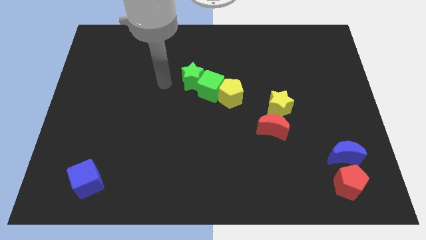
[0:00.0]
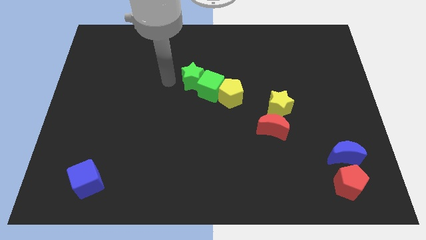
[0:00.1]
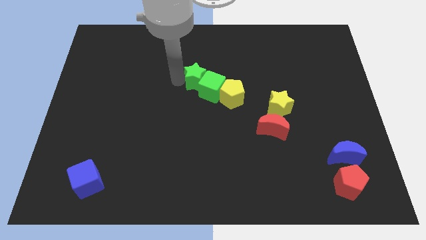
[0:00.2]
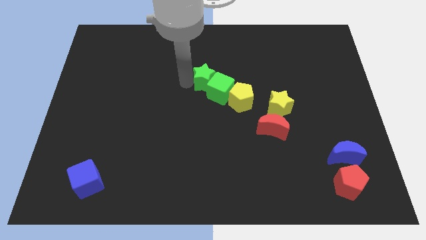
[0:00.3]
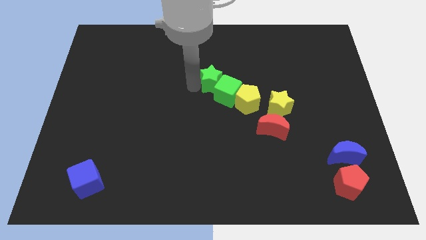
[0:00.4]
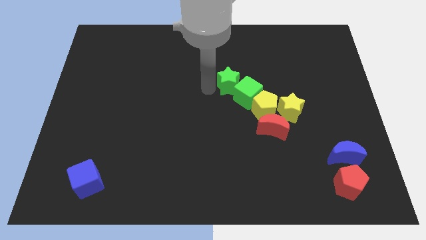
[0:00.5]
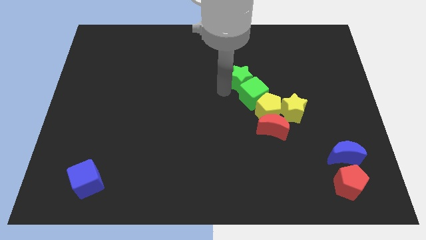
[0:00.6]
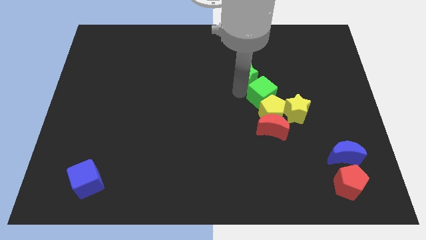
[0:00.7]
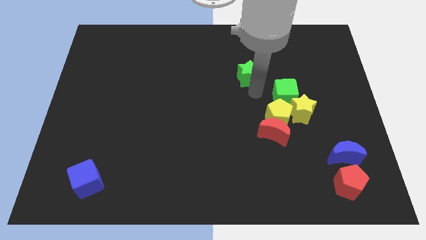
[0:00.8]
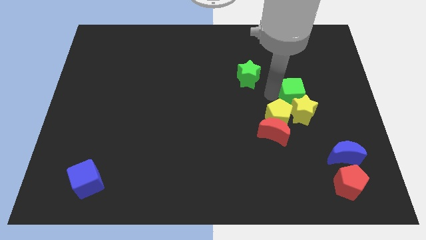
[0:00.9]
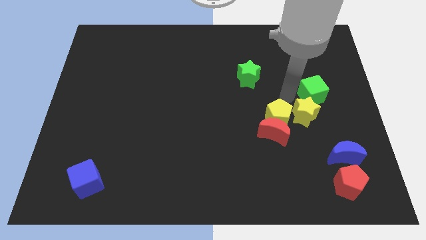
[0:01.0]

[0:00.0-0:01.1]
pull the yellow pentagon apart from the green cube

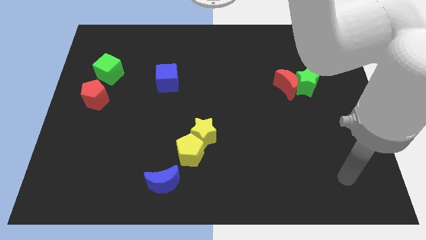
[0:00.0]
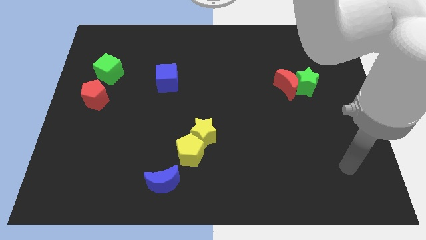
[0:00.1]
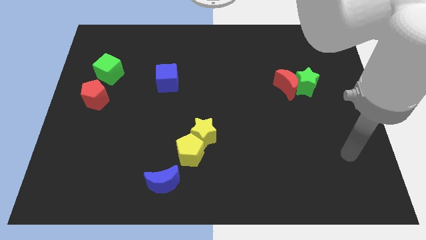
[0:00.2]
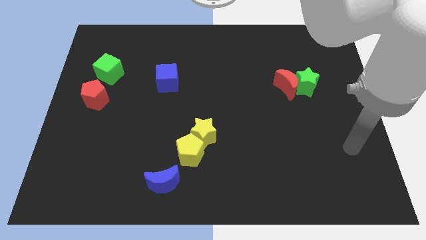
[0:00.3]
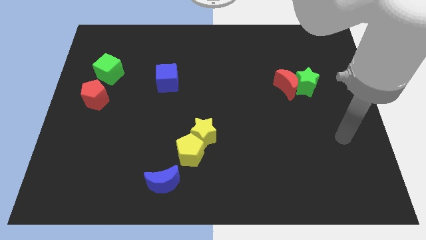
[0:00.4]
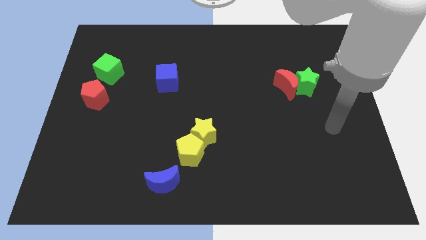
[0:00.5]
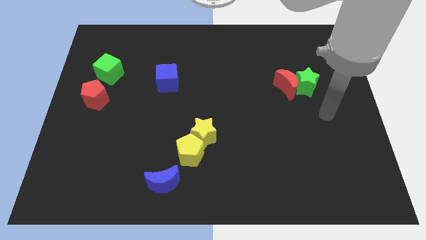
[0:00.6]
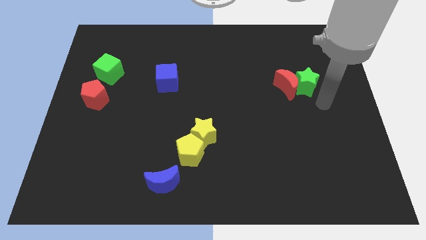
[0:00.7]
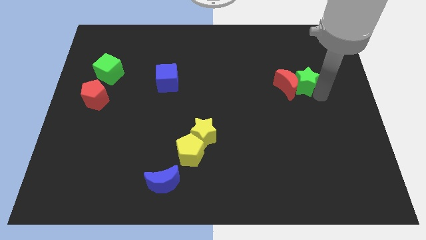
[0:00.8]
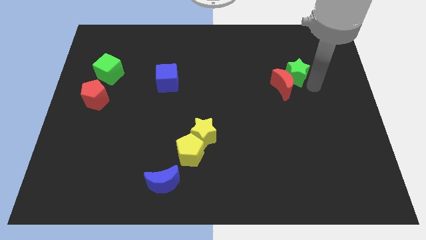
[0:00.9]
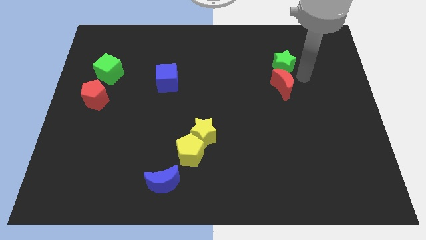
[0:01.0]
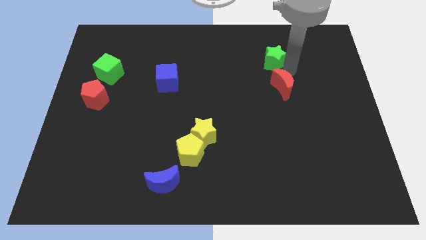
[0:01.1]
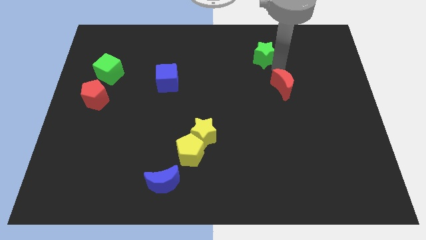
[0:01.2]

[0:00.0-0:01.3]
pull the red moon apart from the green star

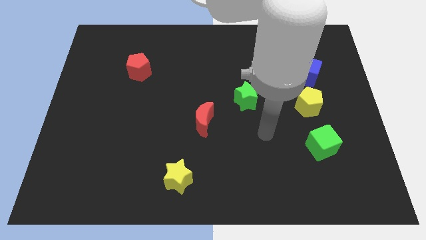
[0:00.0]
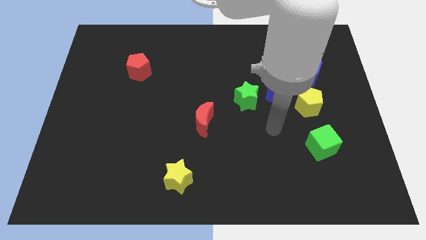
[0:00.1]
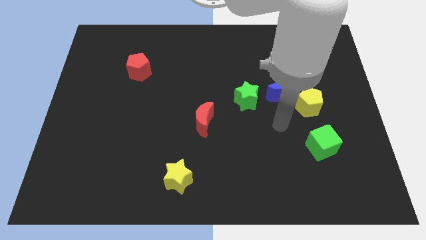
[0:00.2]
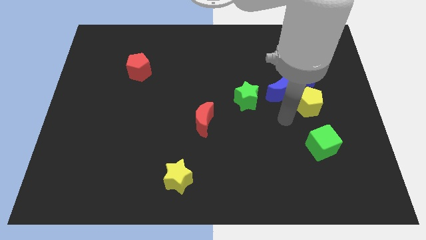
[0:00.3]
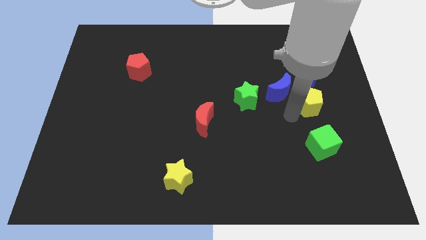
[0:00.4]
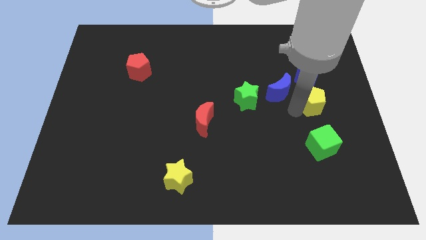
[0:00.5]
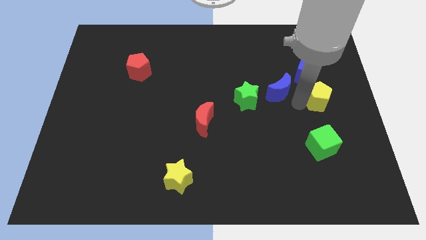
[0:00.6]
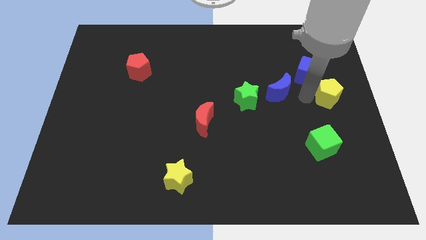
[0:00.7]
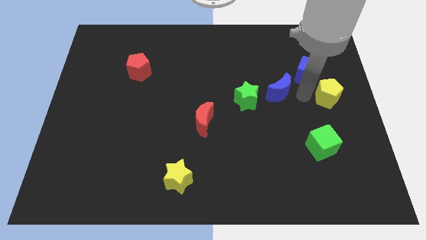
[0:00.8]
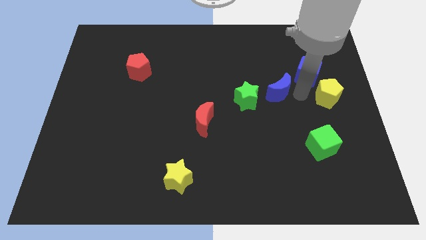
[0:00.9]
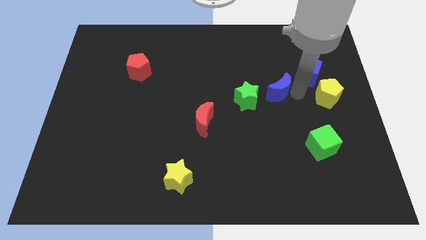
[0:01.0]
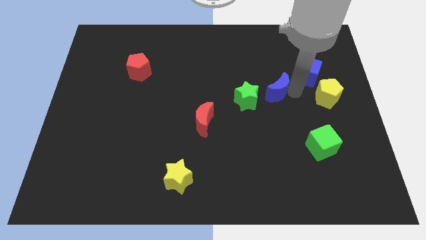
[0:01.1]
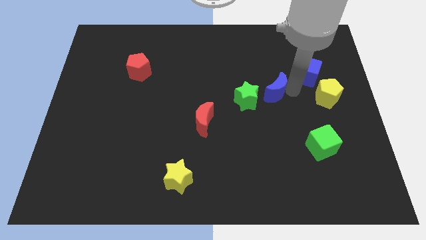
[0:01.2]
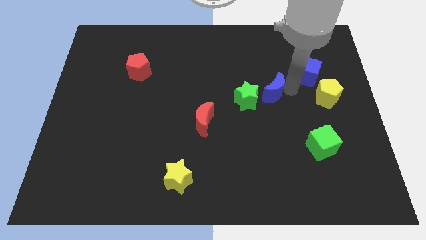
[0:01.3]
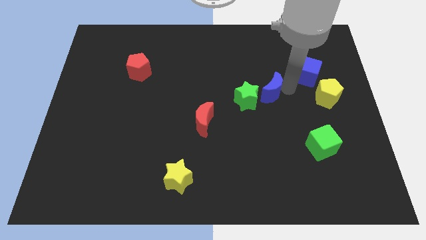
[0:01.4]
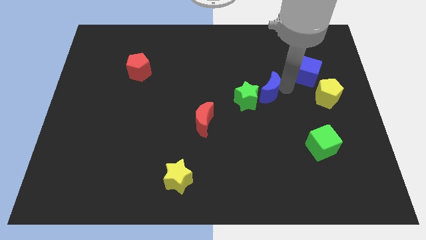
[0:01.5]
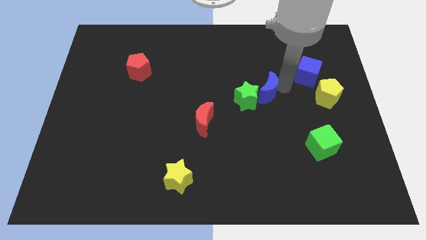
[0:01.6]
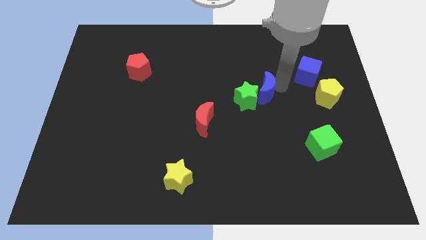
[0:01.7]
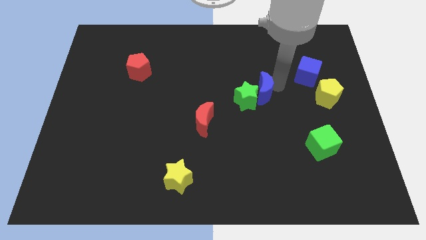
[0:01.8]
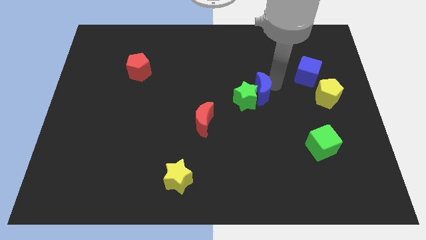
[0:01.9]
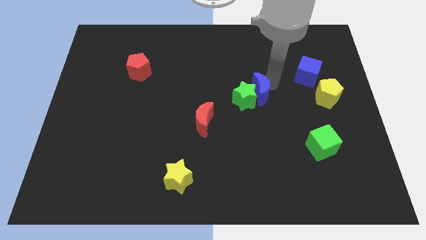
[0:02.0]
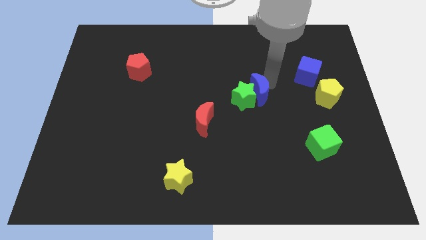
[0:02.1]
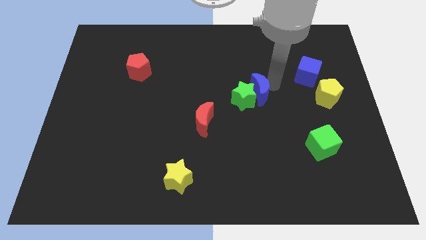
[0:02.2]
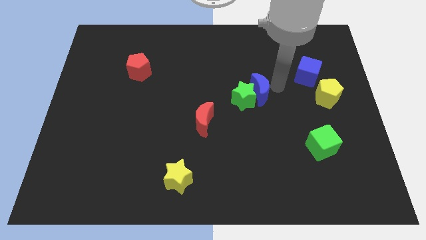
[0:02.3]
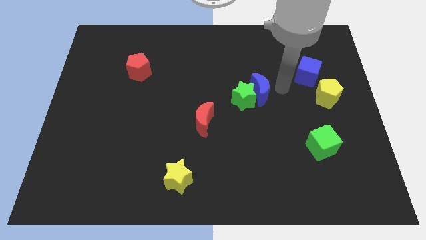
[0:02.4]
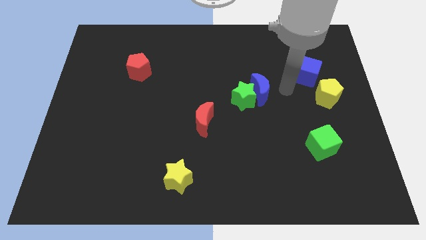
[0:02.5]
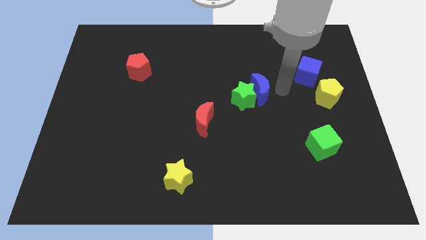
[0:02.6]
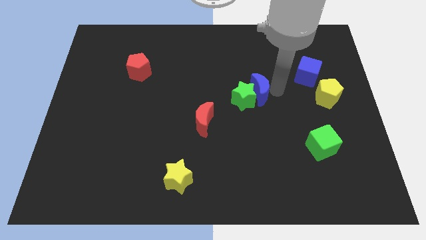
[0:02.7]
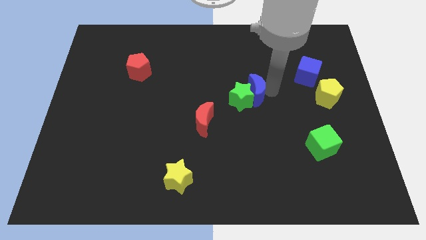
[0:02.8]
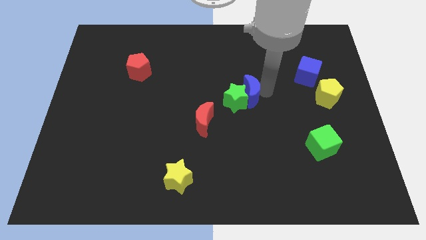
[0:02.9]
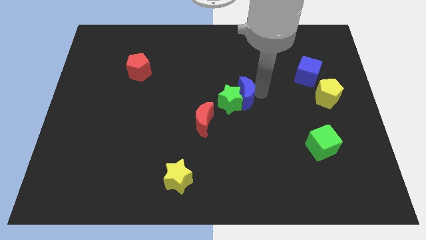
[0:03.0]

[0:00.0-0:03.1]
separate the blue moon from the group

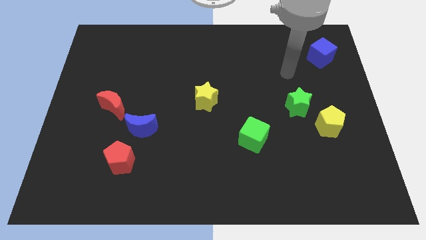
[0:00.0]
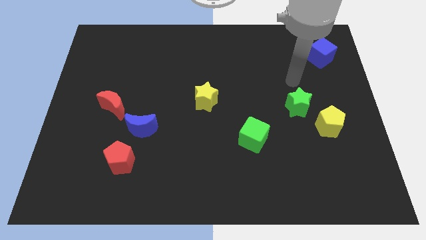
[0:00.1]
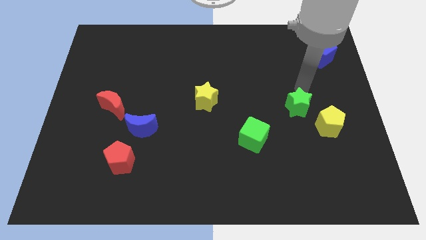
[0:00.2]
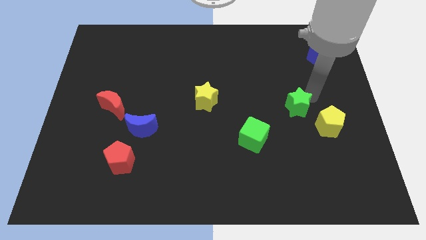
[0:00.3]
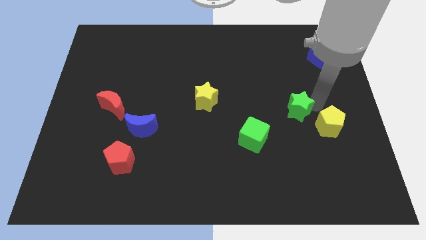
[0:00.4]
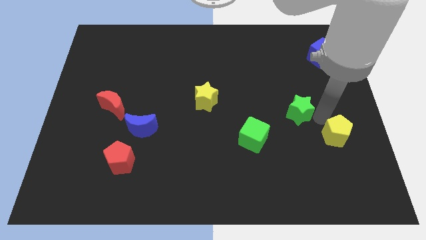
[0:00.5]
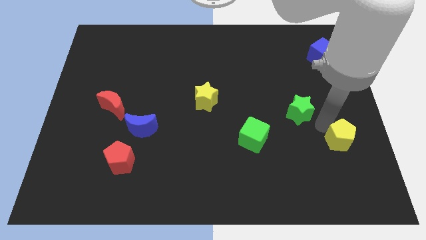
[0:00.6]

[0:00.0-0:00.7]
separate the green star from the yellow pentagon

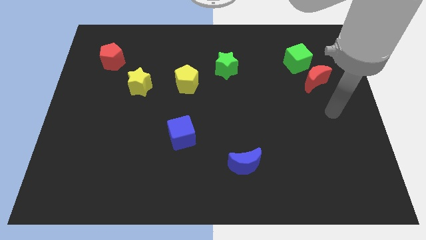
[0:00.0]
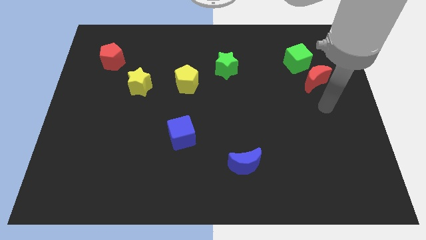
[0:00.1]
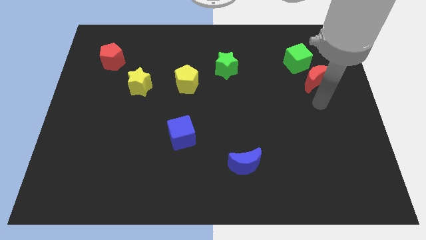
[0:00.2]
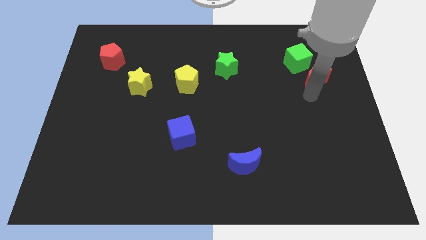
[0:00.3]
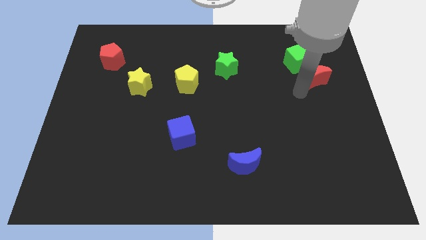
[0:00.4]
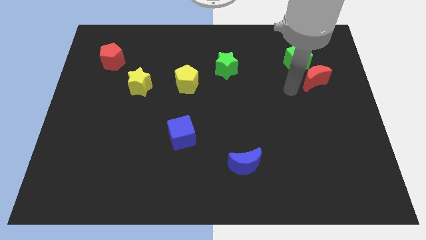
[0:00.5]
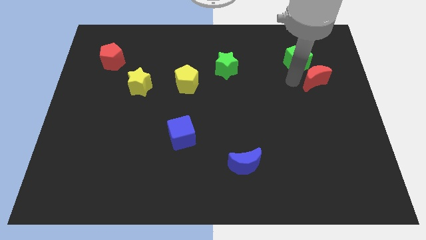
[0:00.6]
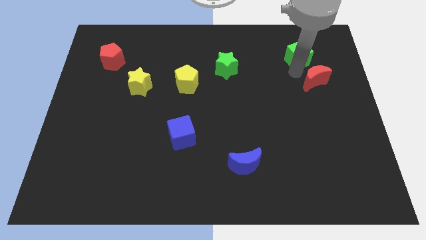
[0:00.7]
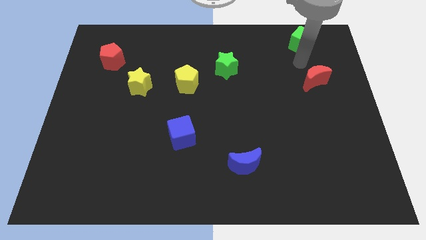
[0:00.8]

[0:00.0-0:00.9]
pull the red moon apart from the green cube

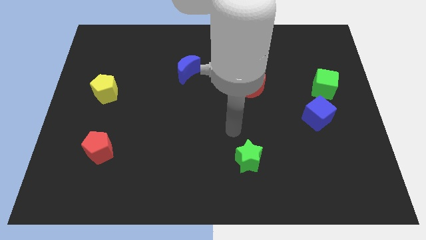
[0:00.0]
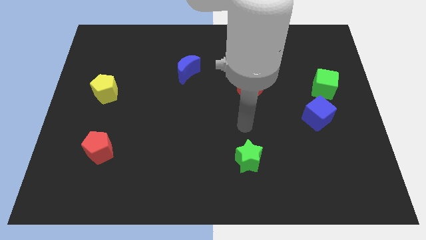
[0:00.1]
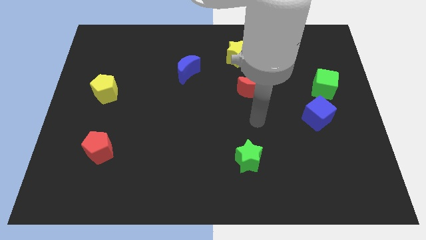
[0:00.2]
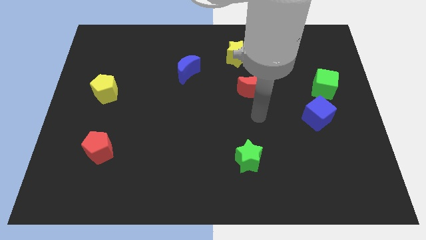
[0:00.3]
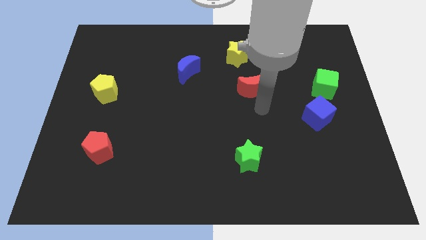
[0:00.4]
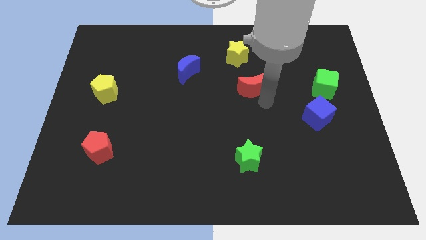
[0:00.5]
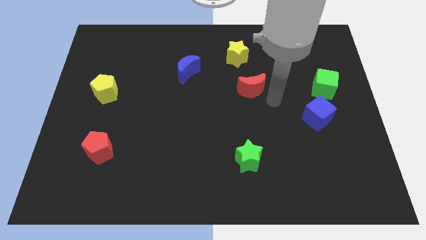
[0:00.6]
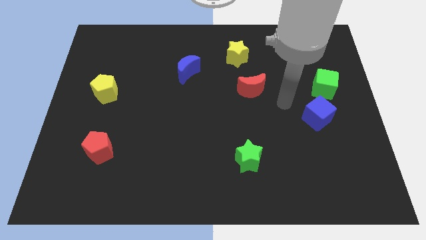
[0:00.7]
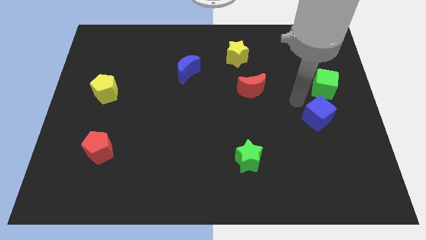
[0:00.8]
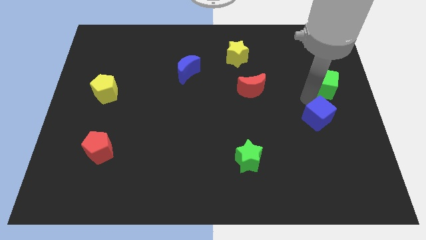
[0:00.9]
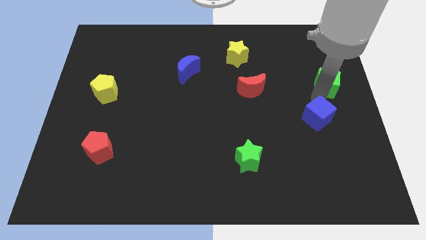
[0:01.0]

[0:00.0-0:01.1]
pull the blue cube apart from the green cube

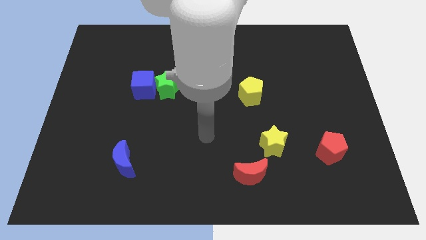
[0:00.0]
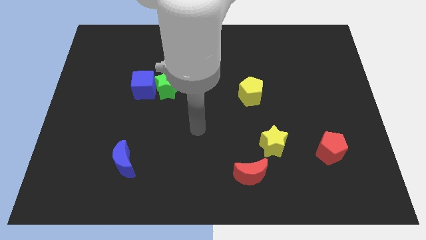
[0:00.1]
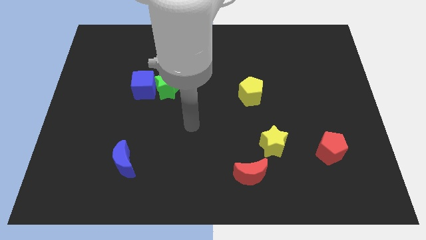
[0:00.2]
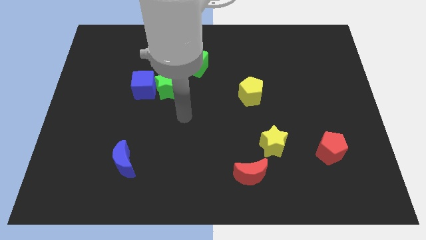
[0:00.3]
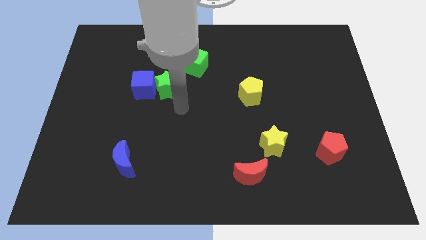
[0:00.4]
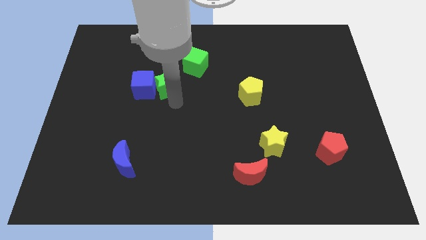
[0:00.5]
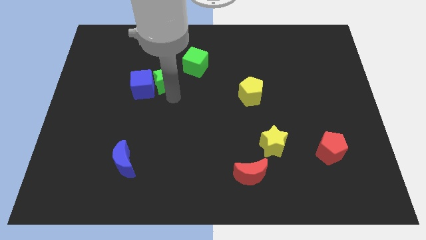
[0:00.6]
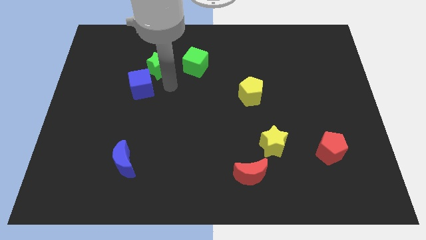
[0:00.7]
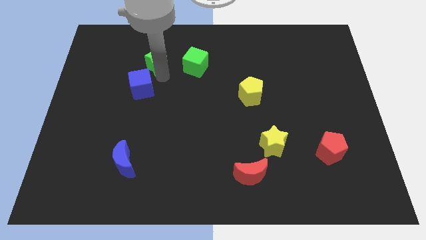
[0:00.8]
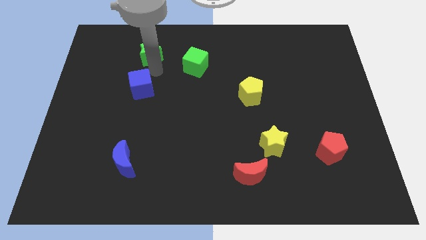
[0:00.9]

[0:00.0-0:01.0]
separate the blue cube from the green star

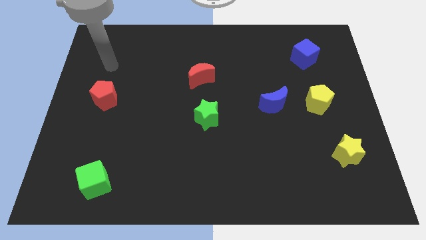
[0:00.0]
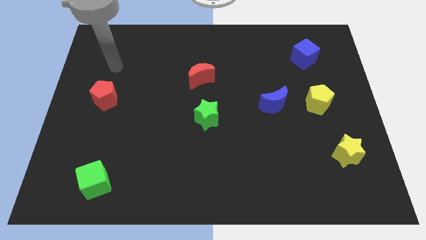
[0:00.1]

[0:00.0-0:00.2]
separate the blue moon from the yellow pentagon
